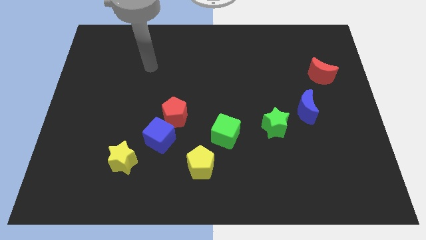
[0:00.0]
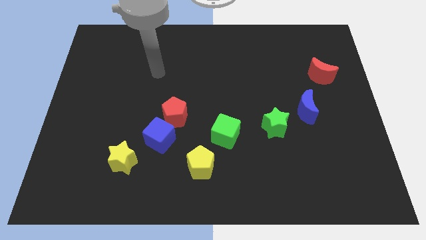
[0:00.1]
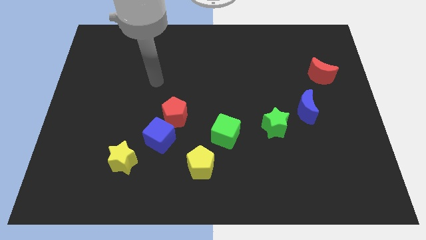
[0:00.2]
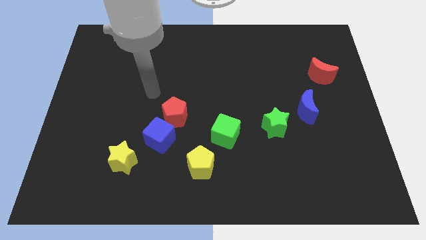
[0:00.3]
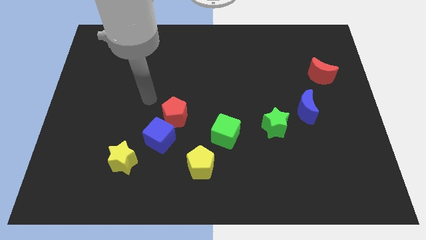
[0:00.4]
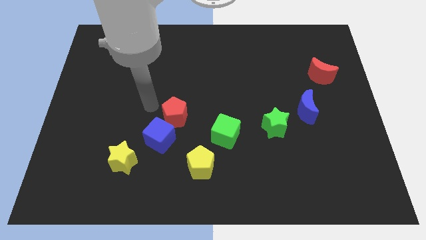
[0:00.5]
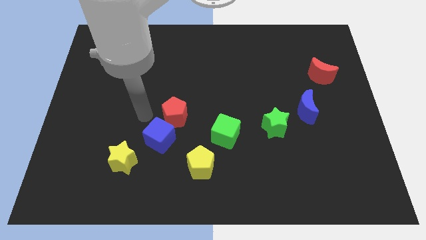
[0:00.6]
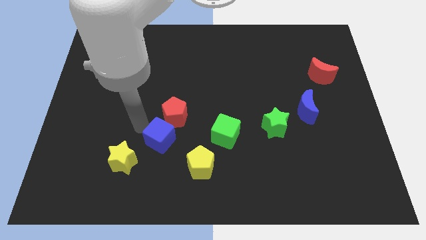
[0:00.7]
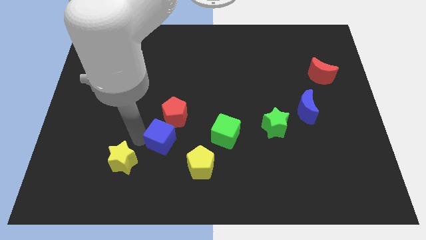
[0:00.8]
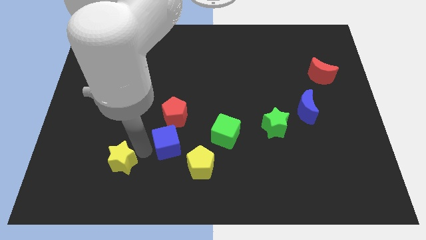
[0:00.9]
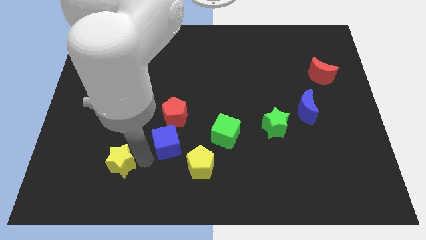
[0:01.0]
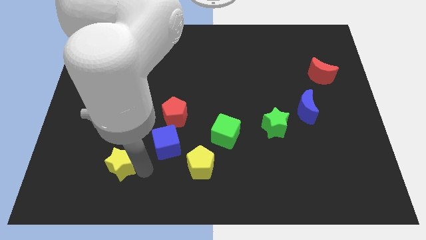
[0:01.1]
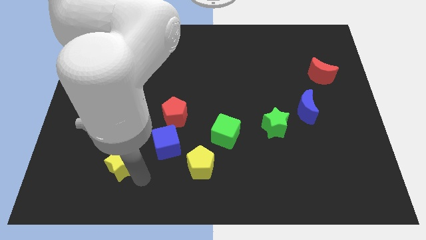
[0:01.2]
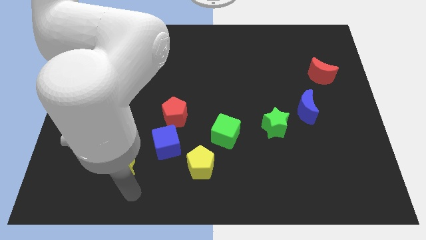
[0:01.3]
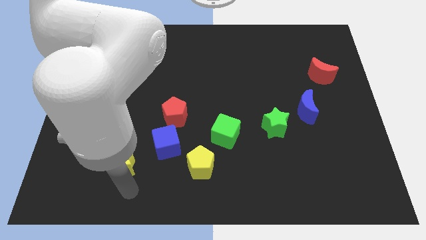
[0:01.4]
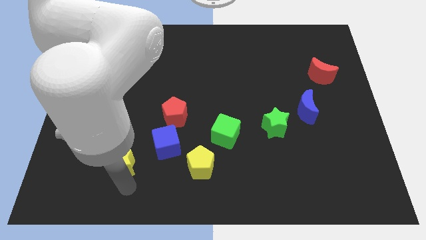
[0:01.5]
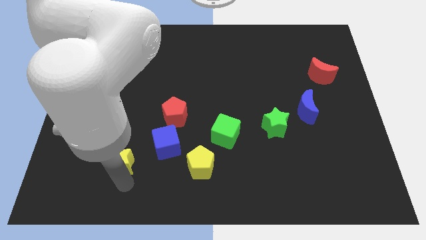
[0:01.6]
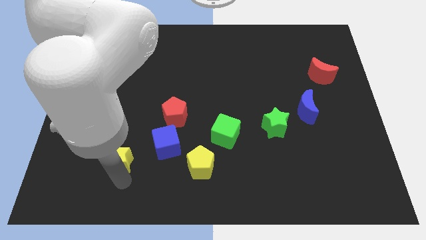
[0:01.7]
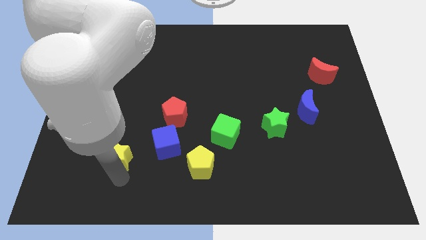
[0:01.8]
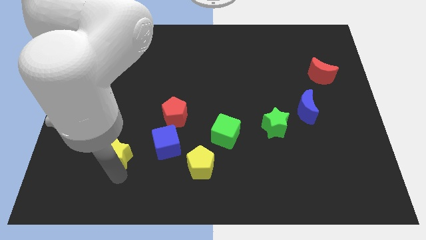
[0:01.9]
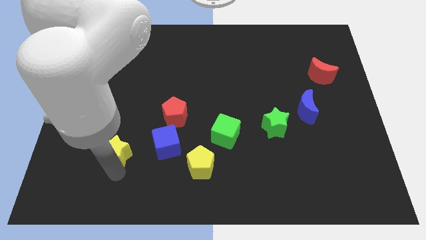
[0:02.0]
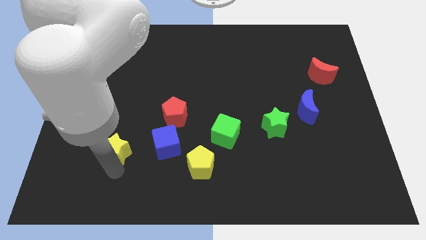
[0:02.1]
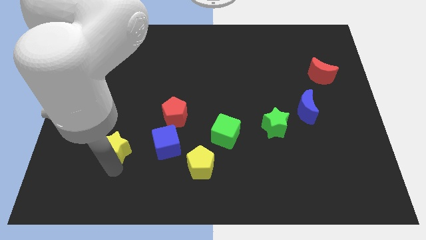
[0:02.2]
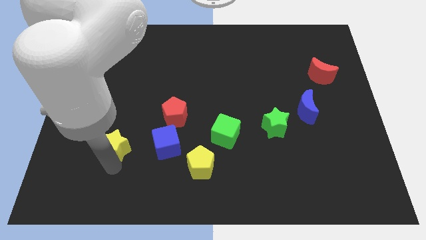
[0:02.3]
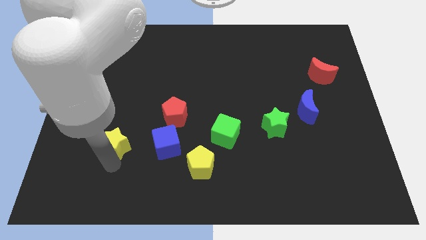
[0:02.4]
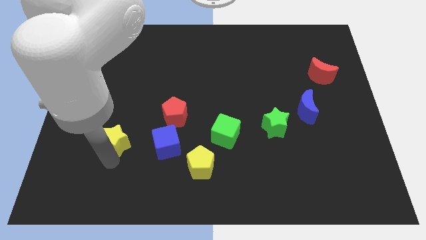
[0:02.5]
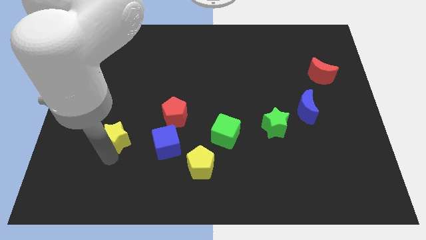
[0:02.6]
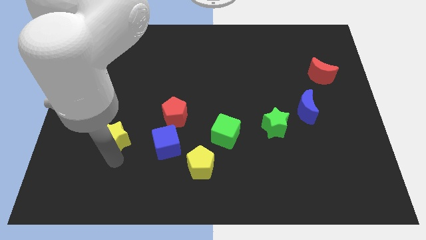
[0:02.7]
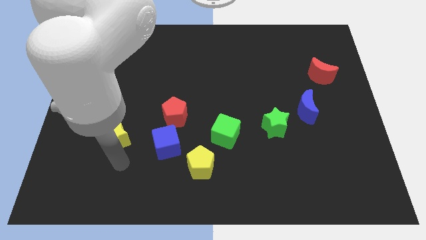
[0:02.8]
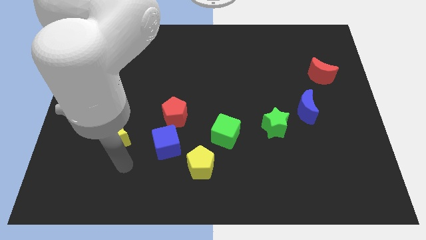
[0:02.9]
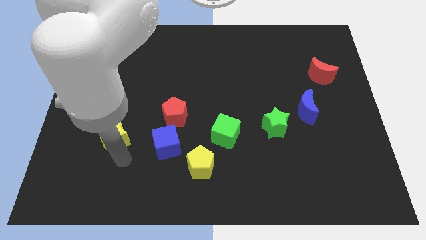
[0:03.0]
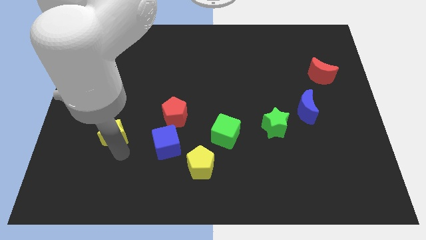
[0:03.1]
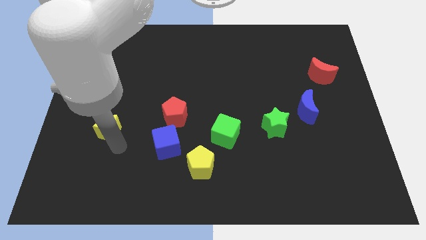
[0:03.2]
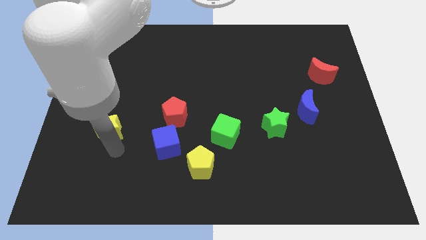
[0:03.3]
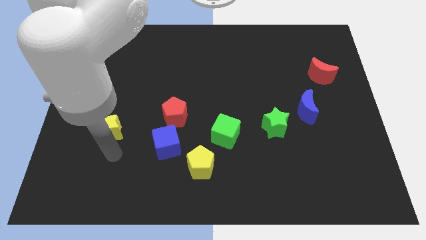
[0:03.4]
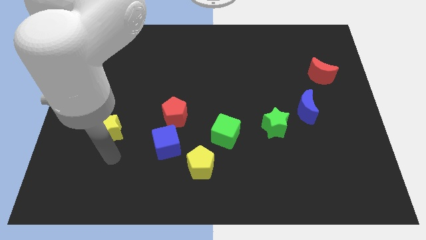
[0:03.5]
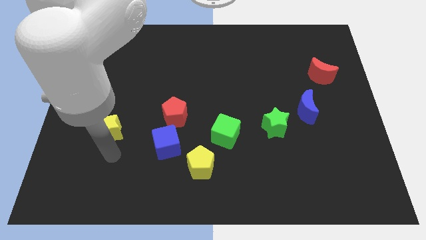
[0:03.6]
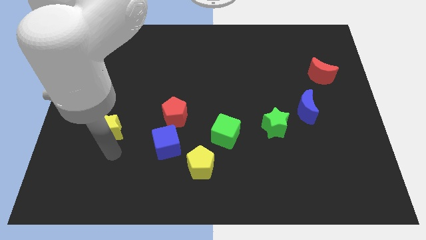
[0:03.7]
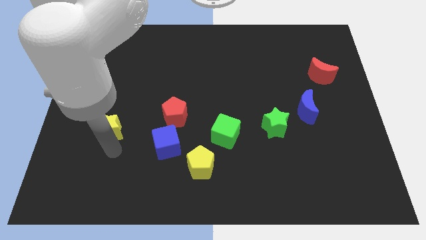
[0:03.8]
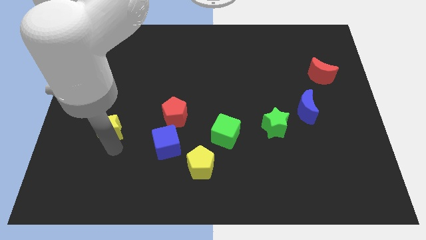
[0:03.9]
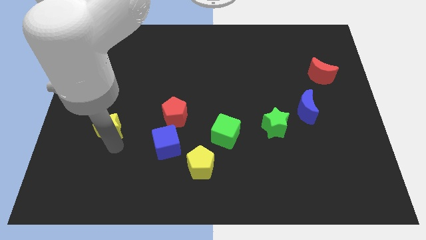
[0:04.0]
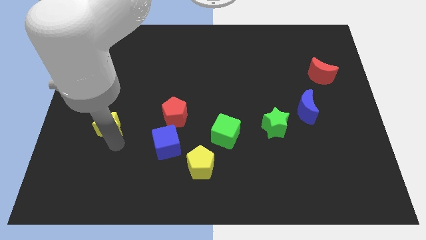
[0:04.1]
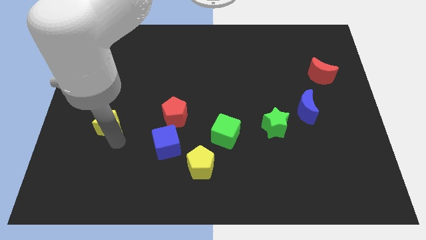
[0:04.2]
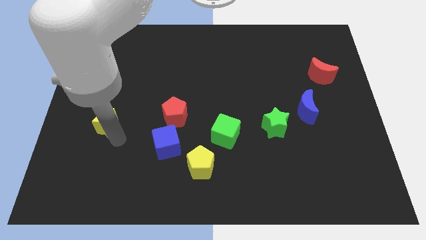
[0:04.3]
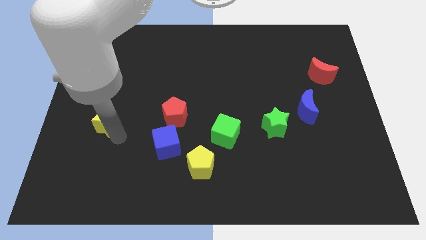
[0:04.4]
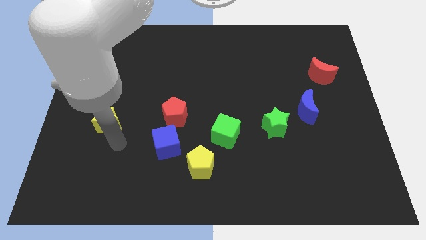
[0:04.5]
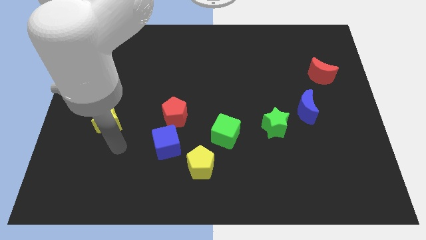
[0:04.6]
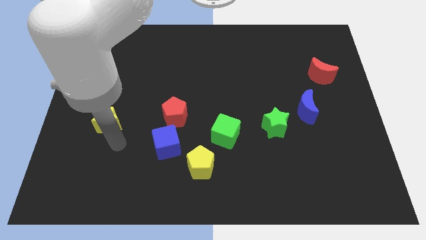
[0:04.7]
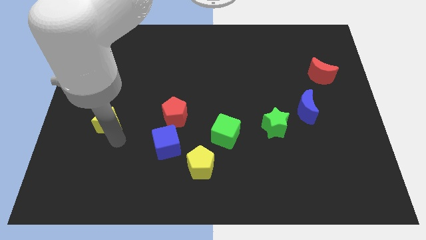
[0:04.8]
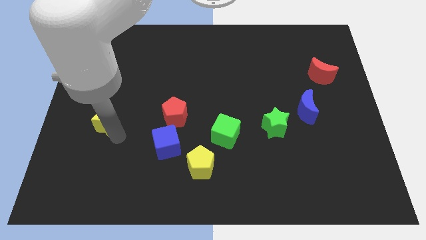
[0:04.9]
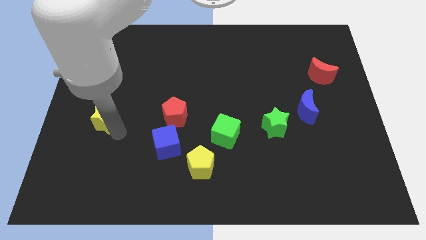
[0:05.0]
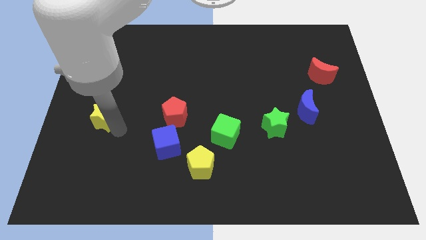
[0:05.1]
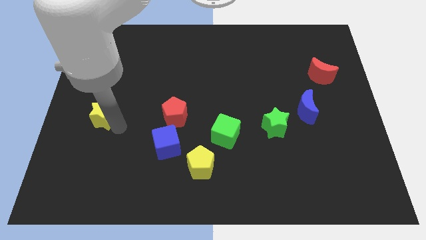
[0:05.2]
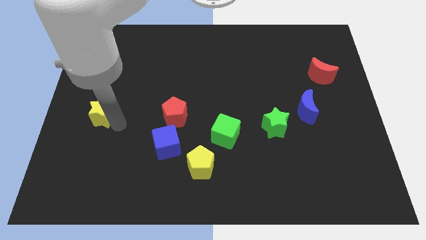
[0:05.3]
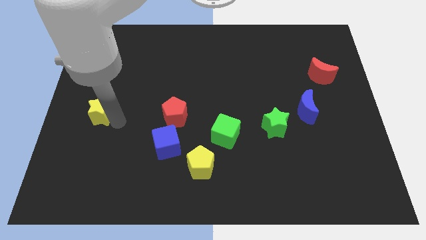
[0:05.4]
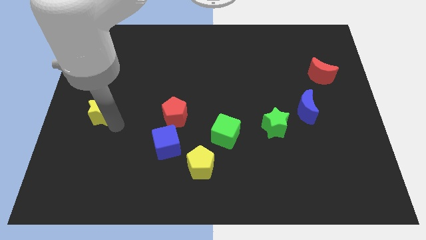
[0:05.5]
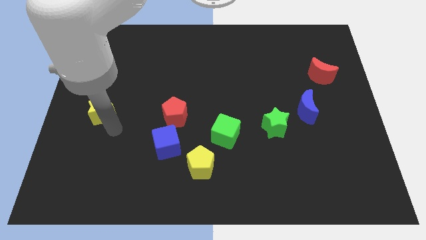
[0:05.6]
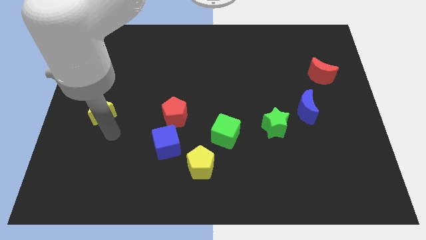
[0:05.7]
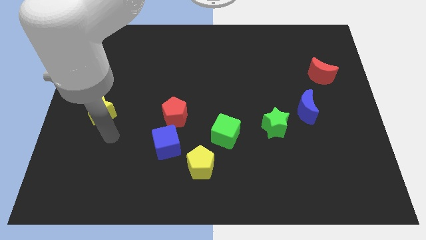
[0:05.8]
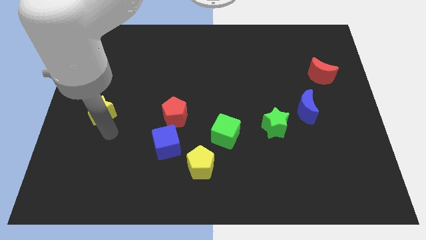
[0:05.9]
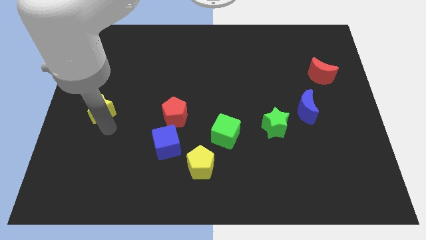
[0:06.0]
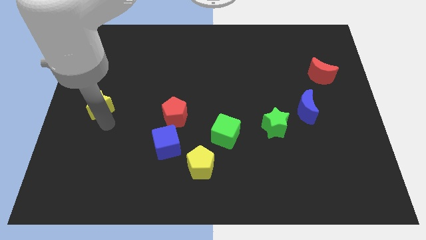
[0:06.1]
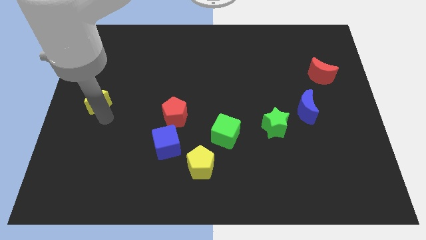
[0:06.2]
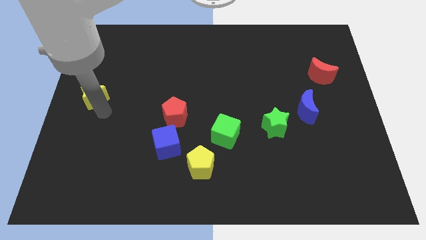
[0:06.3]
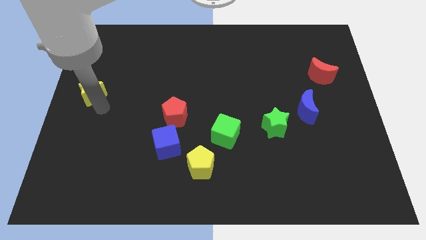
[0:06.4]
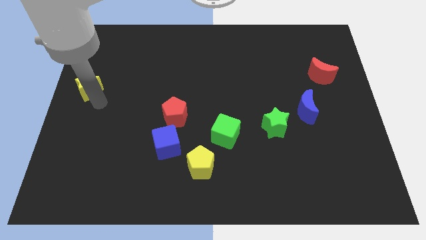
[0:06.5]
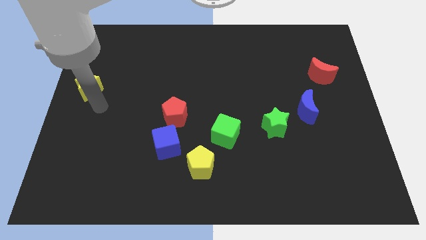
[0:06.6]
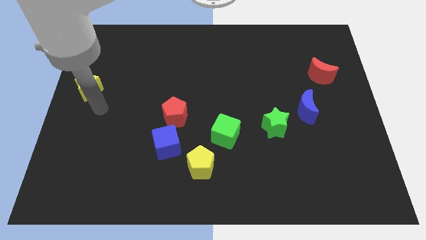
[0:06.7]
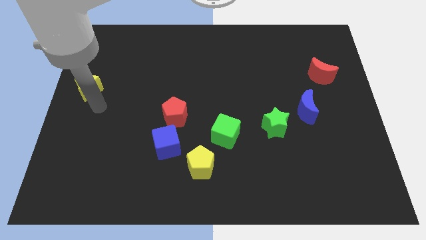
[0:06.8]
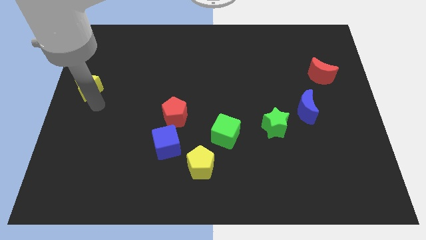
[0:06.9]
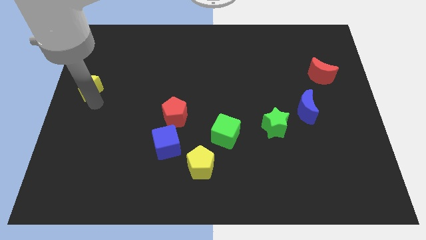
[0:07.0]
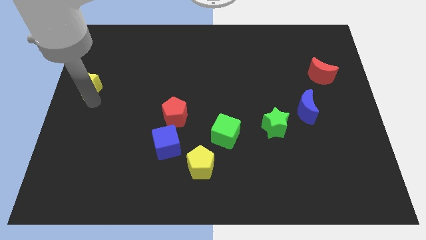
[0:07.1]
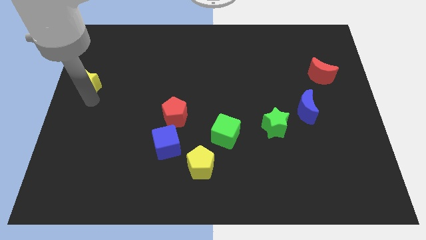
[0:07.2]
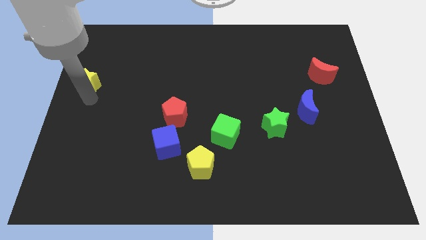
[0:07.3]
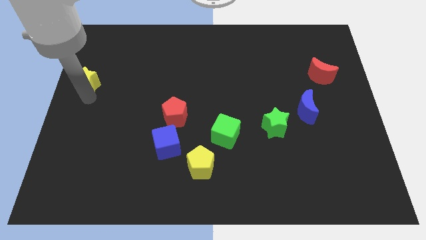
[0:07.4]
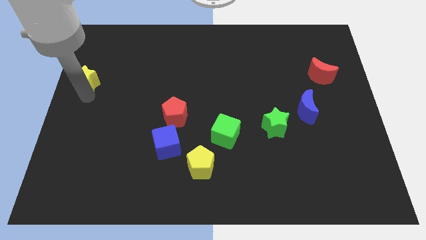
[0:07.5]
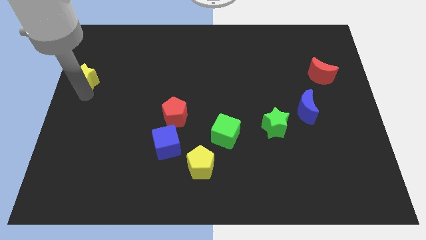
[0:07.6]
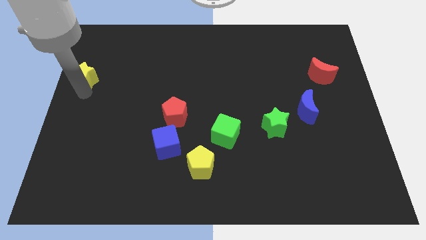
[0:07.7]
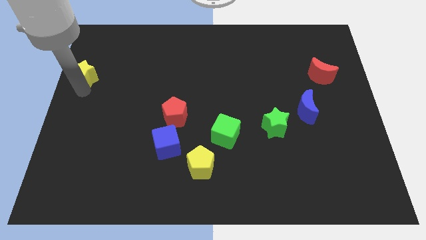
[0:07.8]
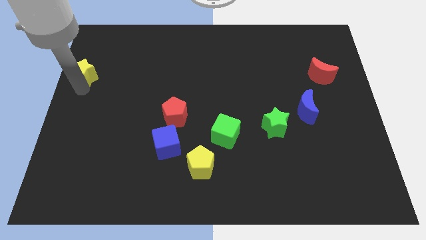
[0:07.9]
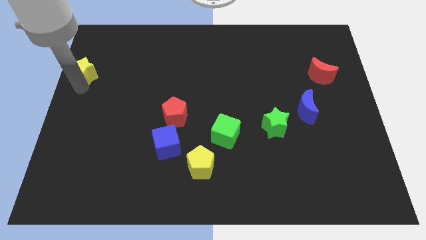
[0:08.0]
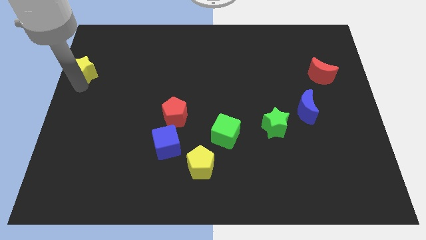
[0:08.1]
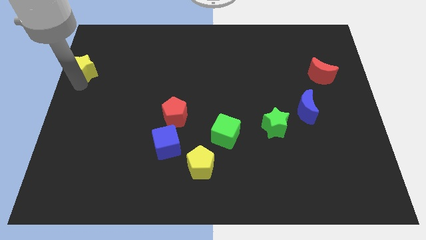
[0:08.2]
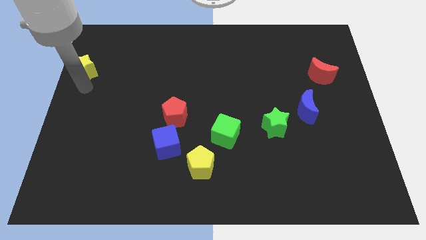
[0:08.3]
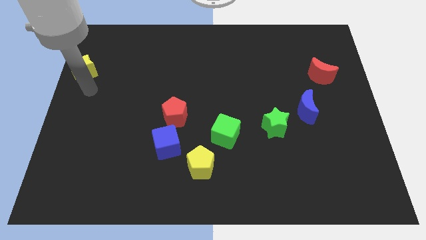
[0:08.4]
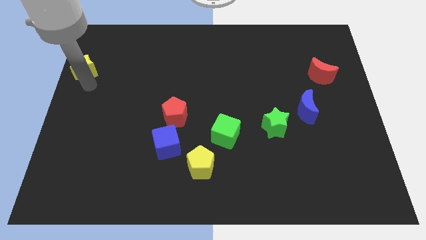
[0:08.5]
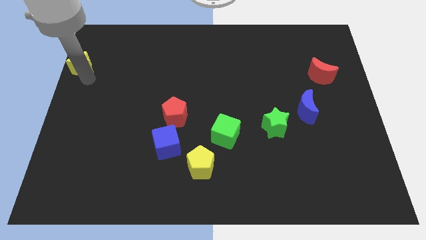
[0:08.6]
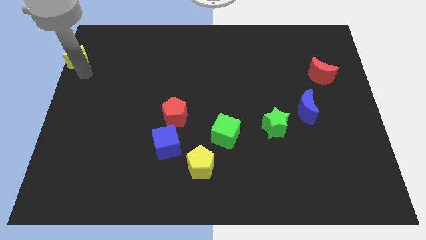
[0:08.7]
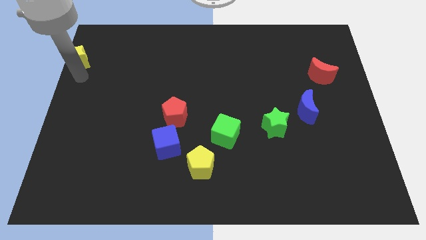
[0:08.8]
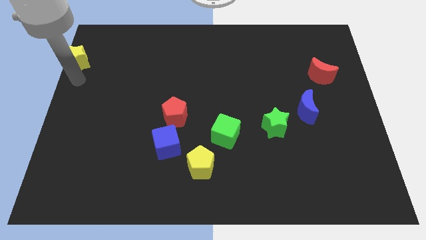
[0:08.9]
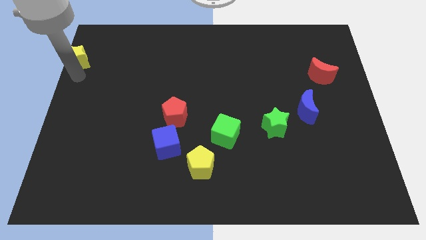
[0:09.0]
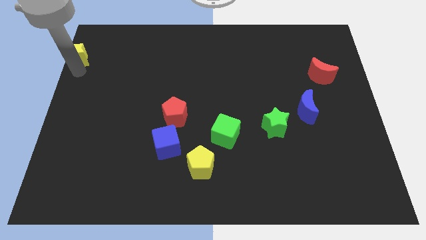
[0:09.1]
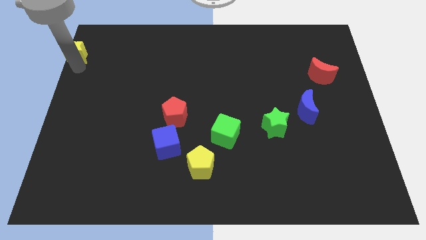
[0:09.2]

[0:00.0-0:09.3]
move the yellow star to the top left of the board
